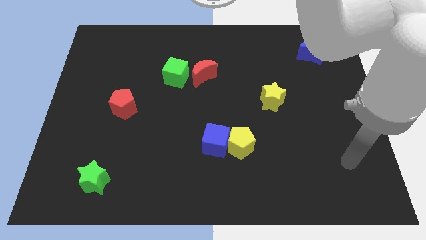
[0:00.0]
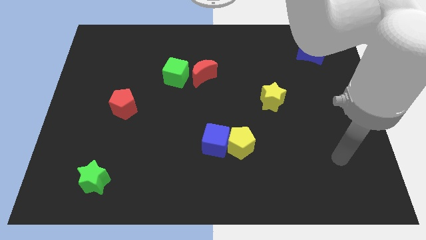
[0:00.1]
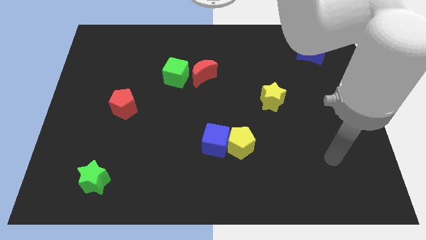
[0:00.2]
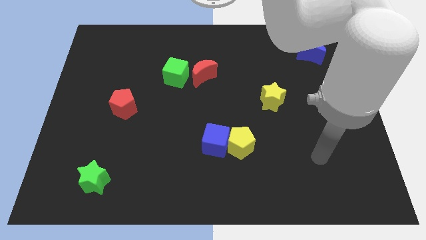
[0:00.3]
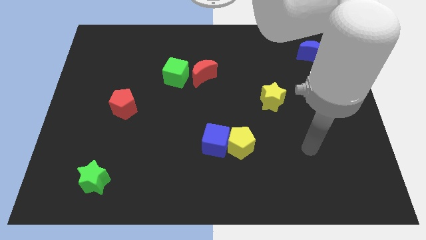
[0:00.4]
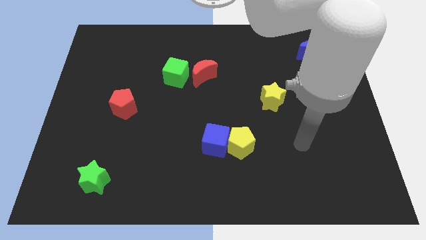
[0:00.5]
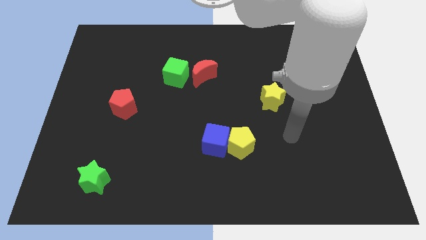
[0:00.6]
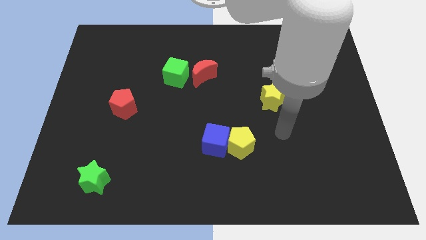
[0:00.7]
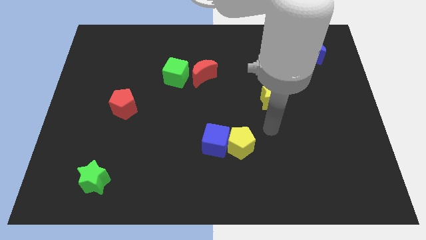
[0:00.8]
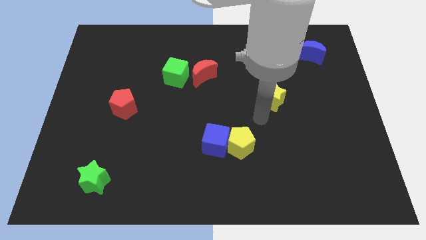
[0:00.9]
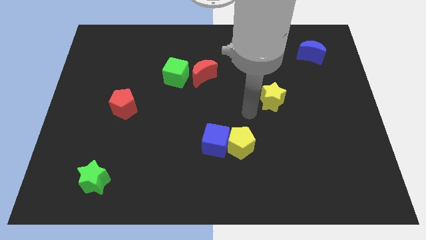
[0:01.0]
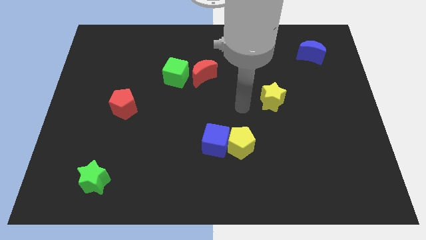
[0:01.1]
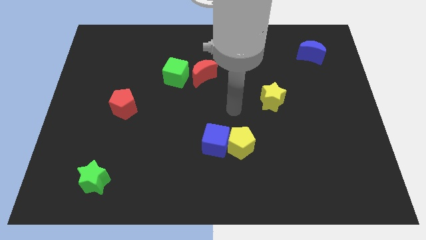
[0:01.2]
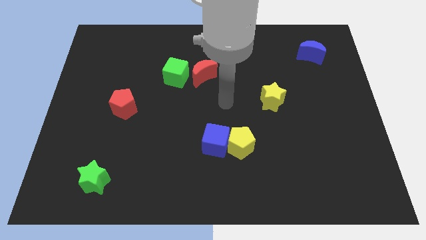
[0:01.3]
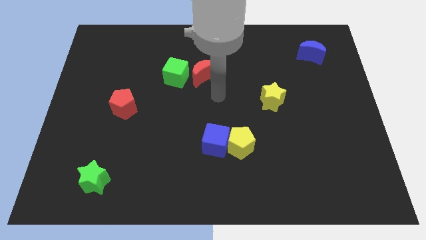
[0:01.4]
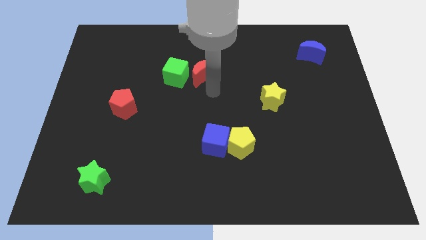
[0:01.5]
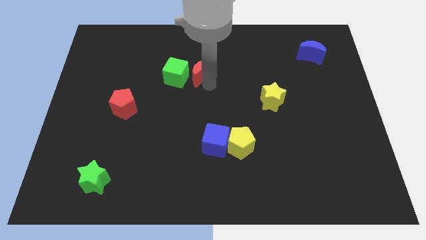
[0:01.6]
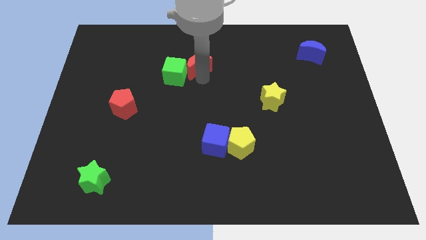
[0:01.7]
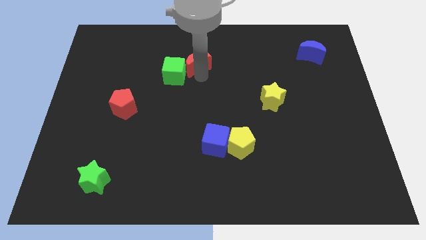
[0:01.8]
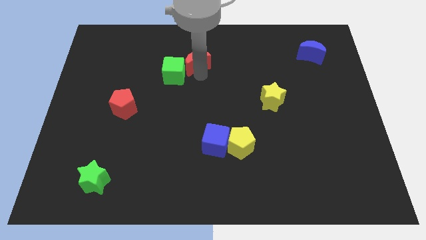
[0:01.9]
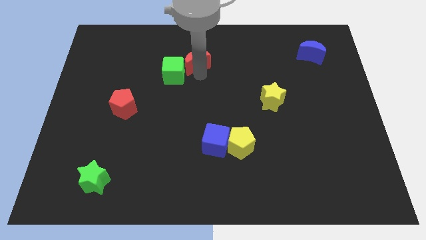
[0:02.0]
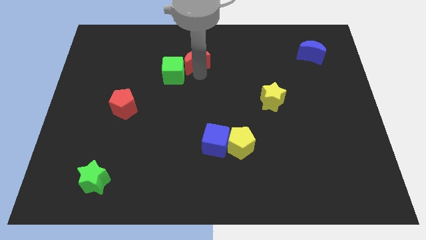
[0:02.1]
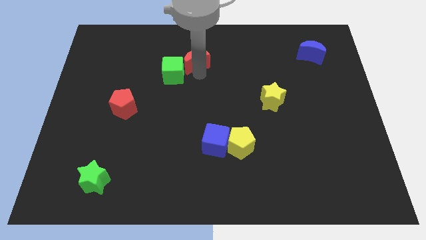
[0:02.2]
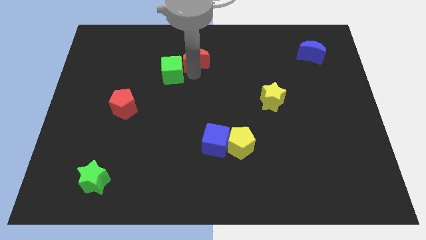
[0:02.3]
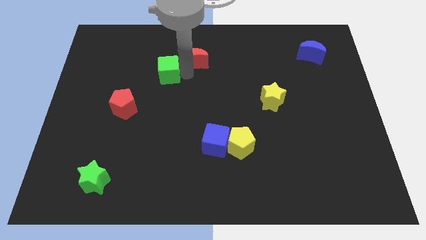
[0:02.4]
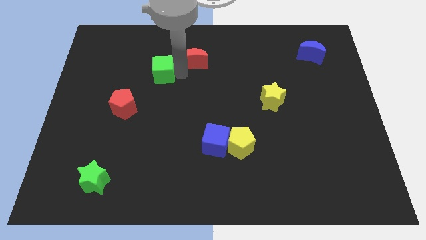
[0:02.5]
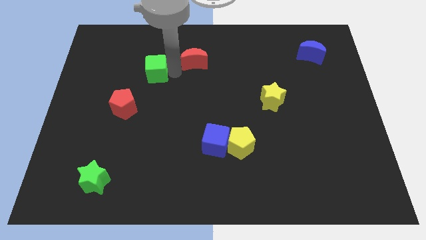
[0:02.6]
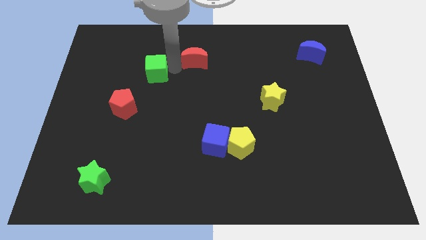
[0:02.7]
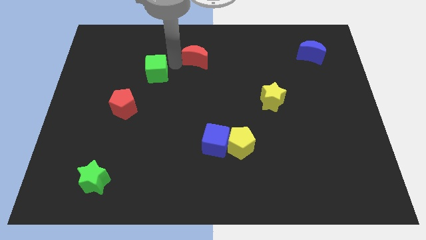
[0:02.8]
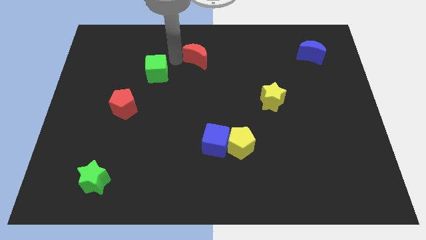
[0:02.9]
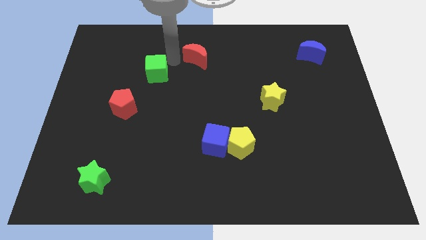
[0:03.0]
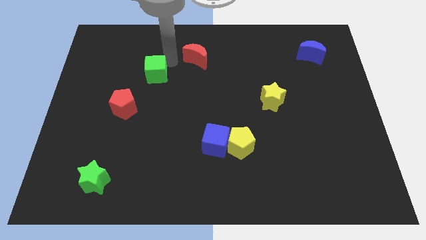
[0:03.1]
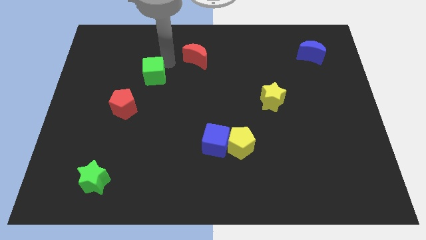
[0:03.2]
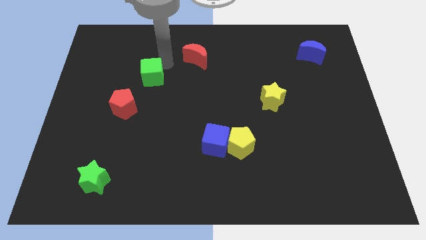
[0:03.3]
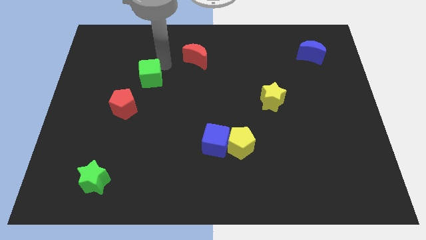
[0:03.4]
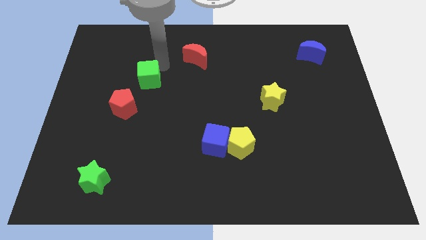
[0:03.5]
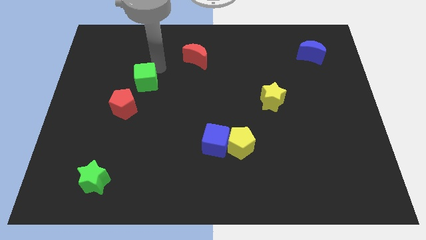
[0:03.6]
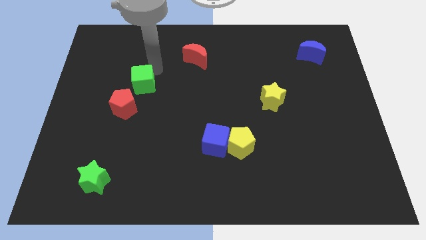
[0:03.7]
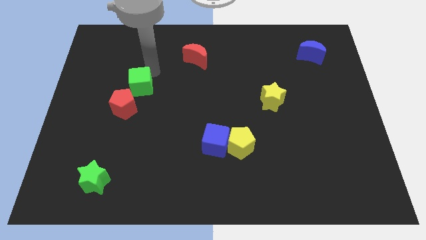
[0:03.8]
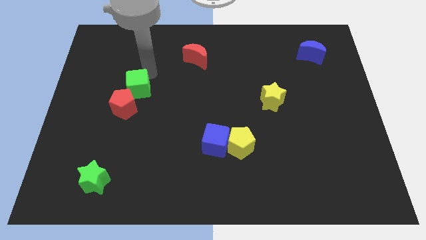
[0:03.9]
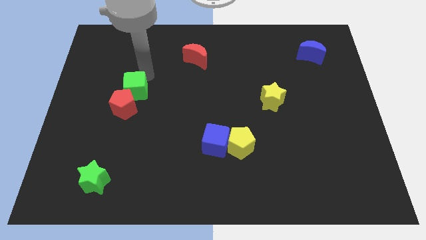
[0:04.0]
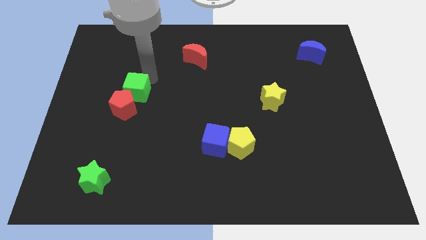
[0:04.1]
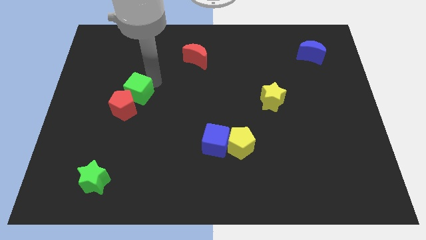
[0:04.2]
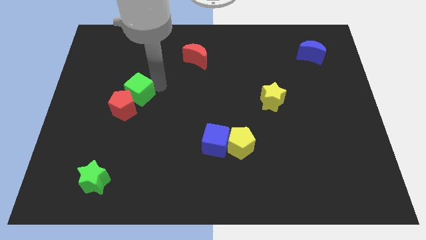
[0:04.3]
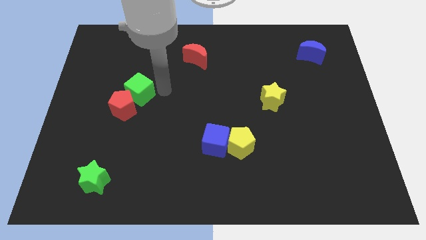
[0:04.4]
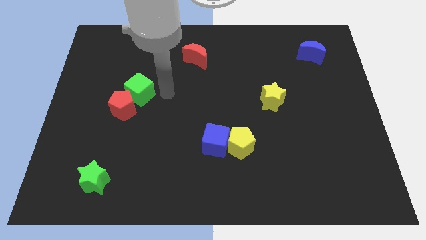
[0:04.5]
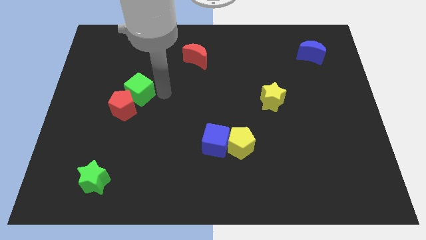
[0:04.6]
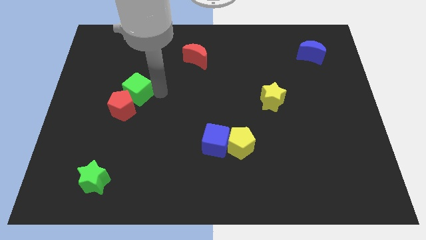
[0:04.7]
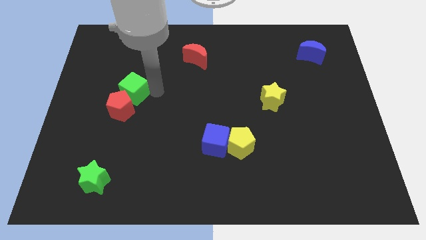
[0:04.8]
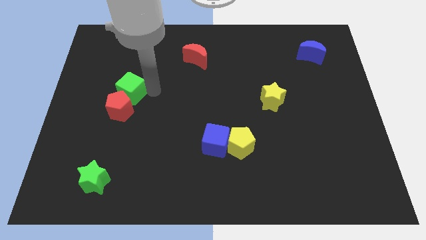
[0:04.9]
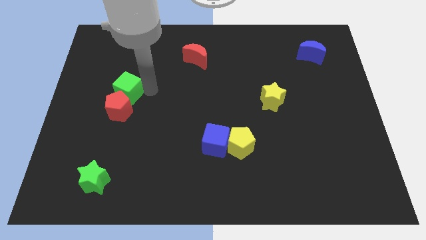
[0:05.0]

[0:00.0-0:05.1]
move the green cube to the top left side of the red pentagon
